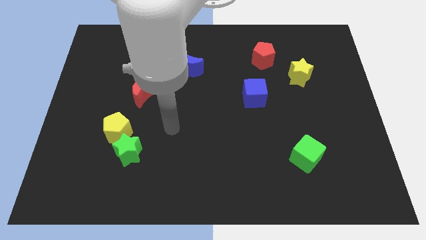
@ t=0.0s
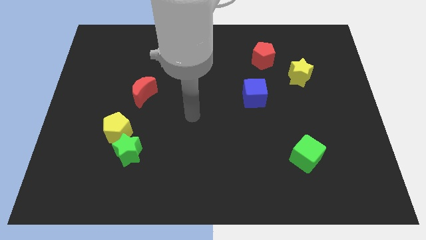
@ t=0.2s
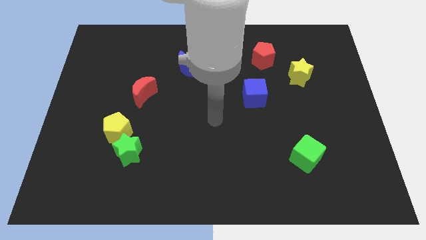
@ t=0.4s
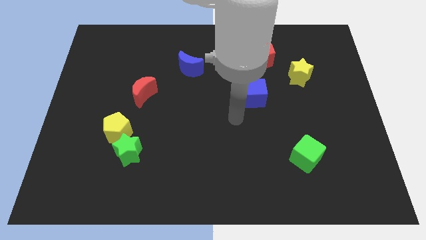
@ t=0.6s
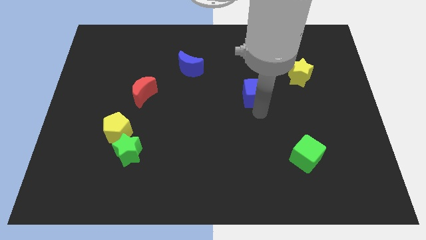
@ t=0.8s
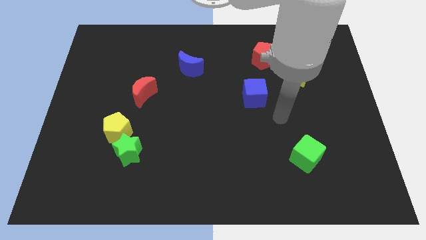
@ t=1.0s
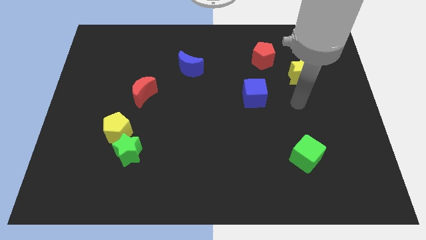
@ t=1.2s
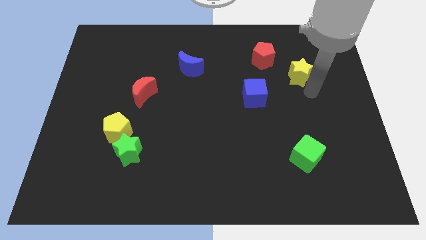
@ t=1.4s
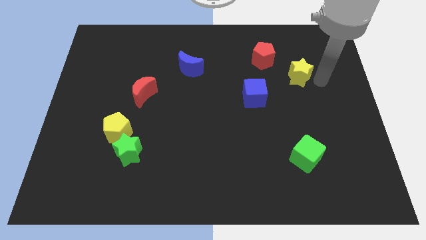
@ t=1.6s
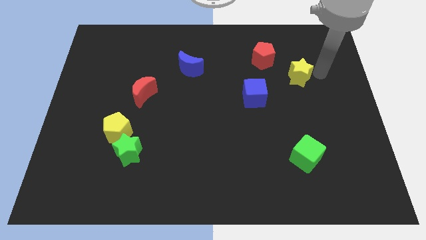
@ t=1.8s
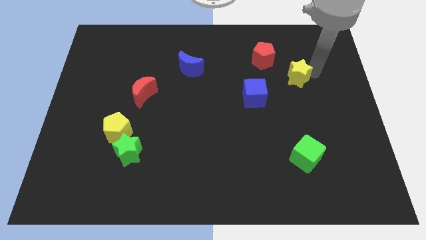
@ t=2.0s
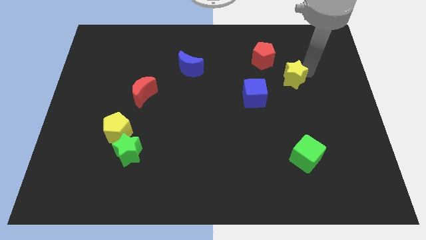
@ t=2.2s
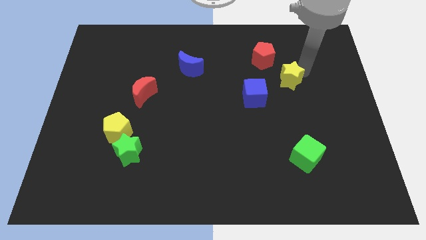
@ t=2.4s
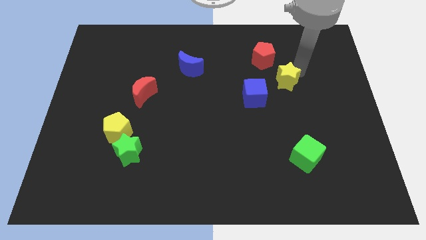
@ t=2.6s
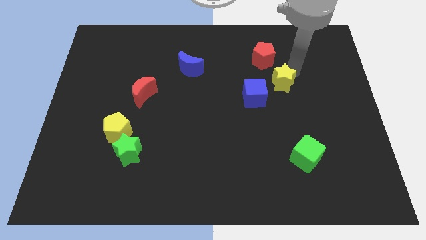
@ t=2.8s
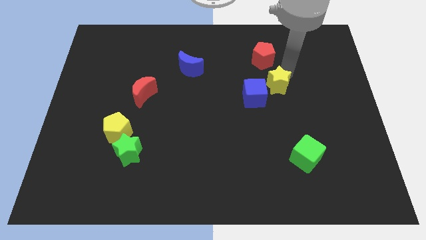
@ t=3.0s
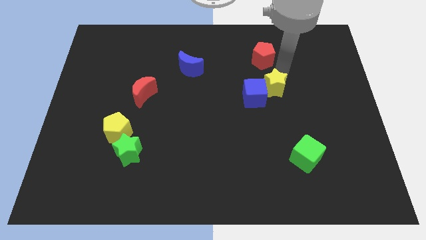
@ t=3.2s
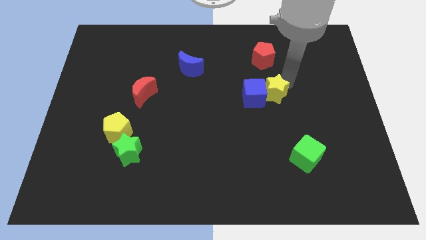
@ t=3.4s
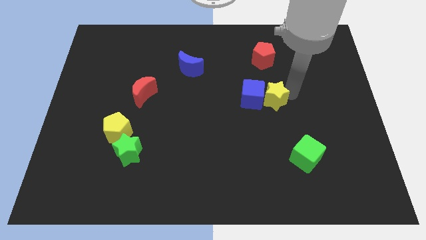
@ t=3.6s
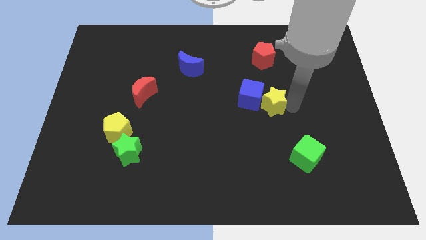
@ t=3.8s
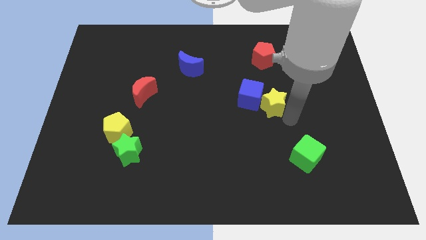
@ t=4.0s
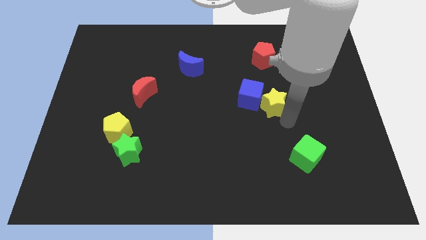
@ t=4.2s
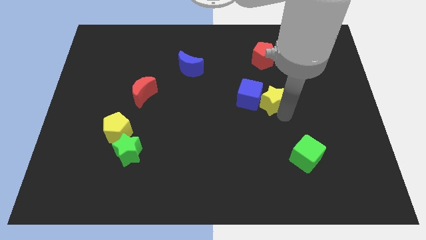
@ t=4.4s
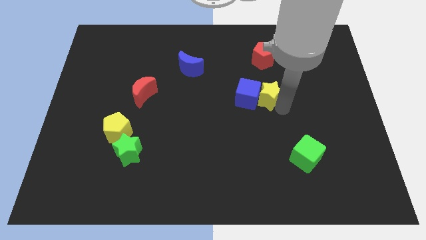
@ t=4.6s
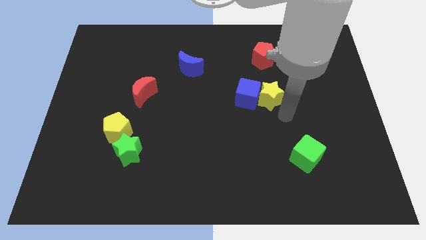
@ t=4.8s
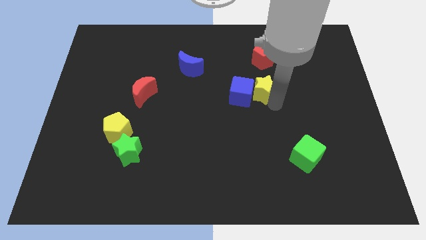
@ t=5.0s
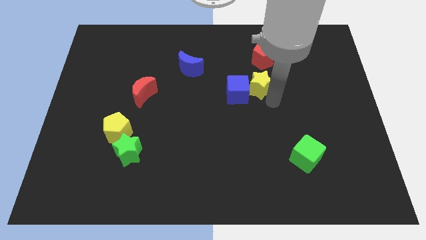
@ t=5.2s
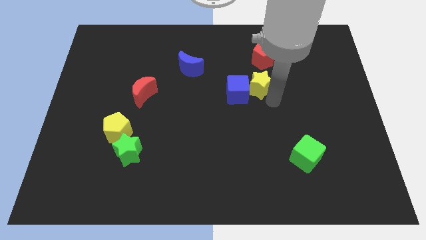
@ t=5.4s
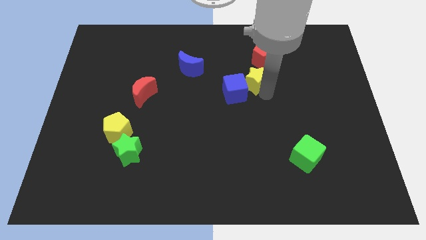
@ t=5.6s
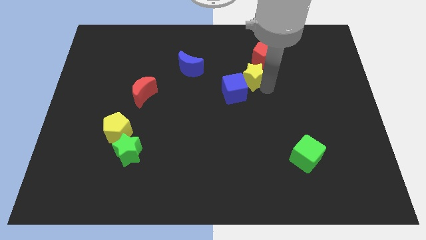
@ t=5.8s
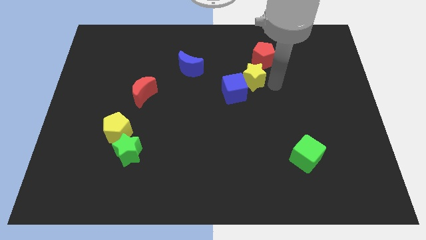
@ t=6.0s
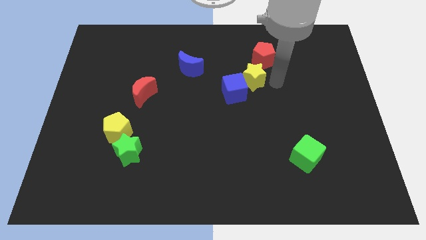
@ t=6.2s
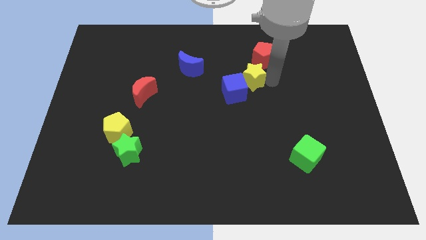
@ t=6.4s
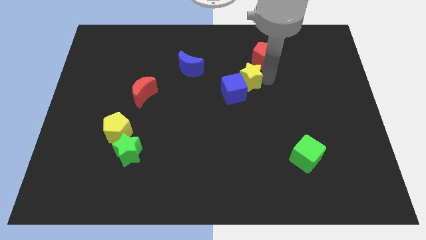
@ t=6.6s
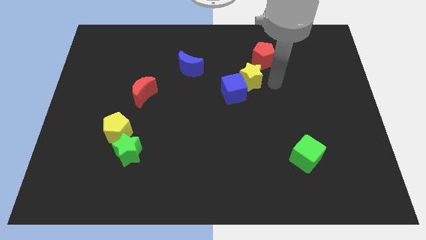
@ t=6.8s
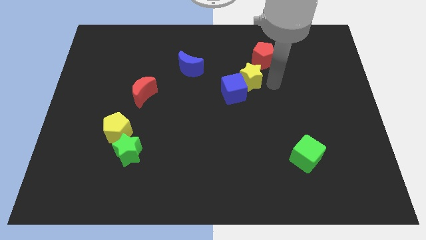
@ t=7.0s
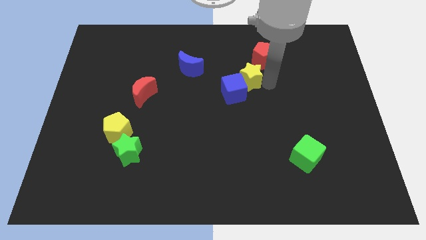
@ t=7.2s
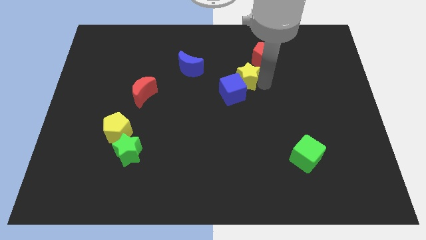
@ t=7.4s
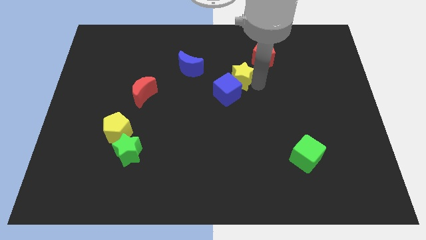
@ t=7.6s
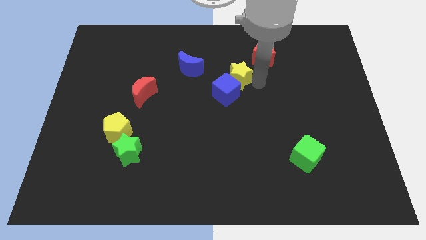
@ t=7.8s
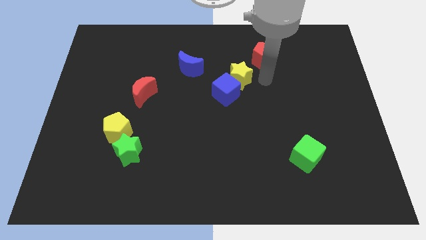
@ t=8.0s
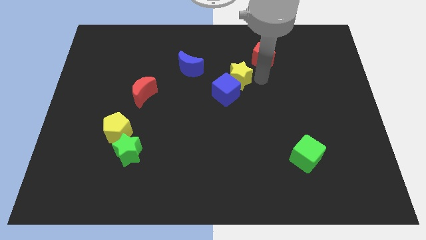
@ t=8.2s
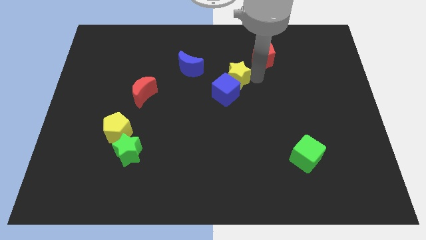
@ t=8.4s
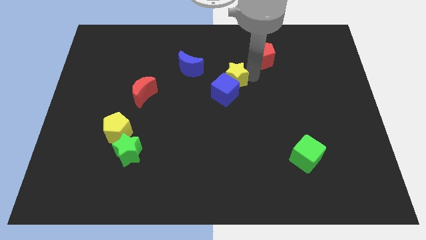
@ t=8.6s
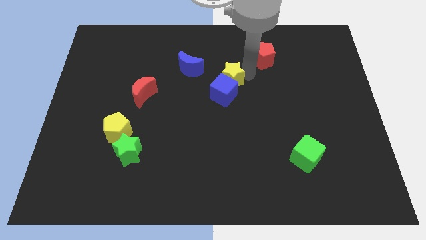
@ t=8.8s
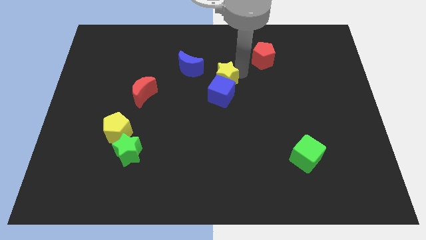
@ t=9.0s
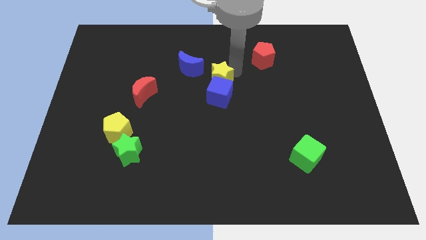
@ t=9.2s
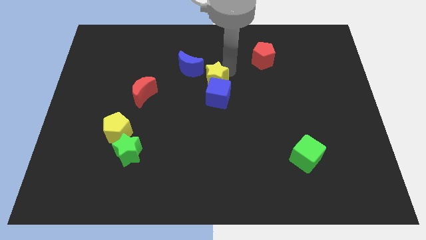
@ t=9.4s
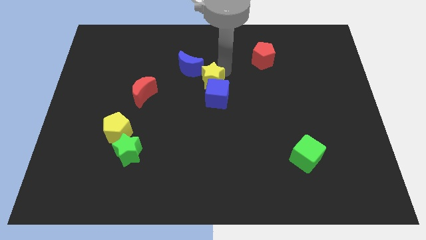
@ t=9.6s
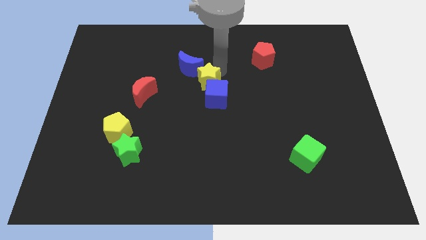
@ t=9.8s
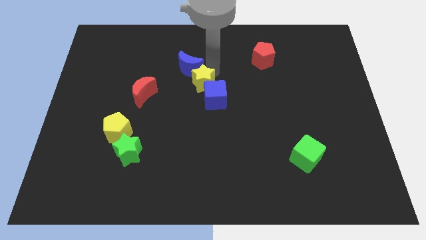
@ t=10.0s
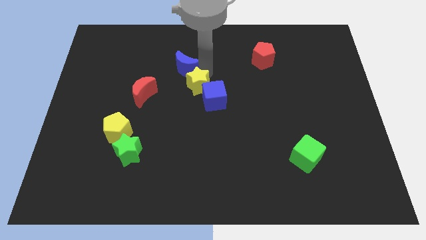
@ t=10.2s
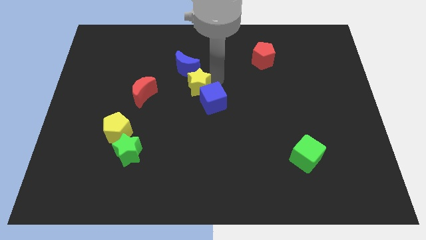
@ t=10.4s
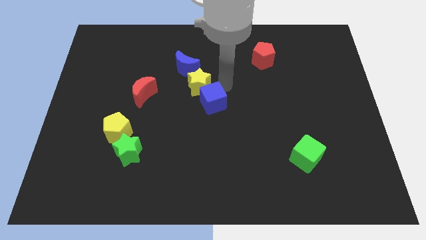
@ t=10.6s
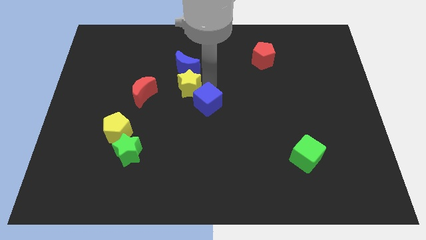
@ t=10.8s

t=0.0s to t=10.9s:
put the yellow star to the bottom left of the blue moon
